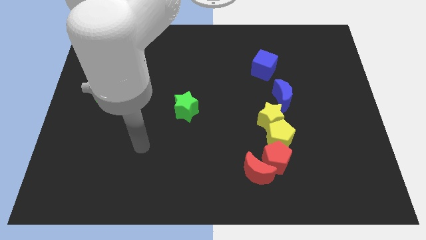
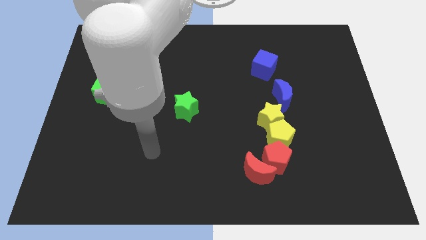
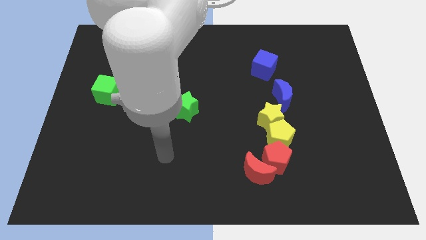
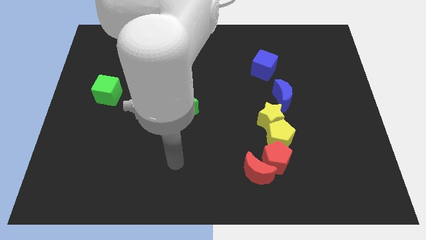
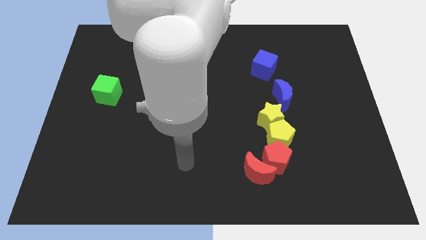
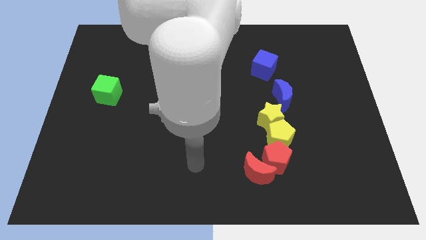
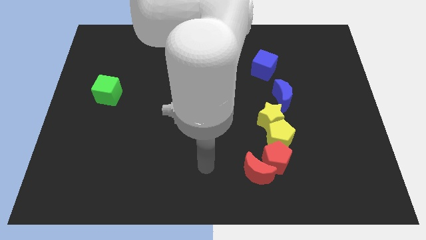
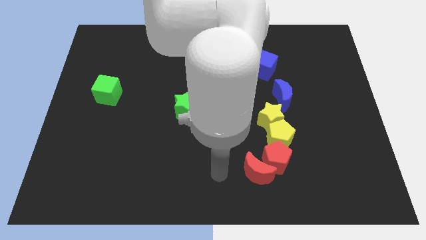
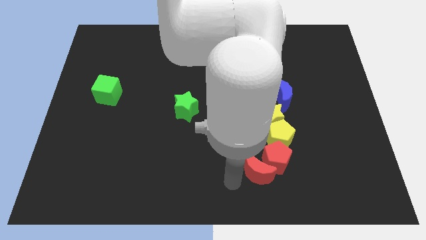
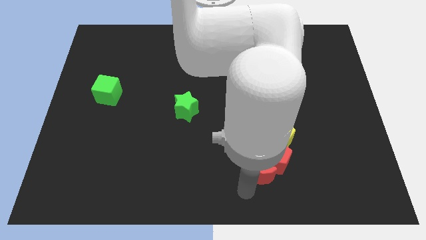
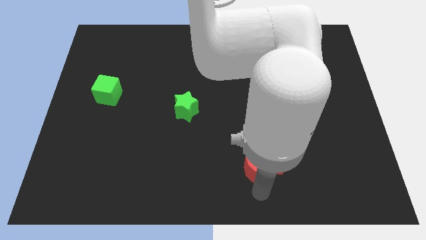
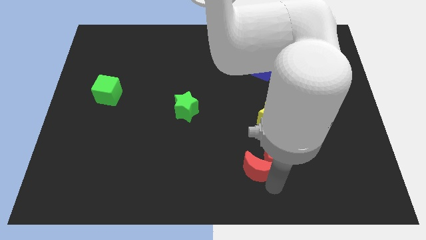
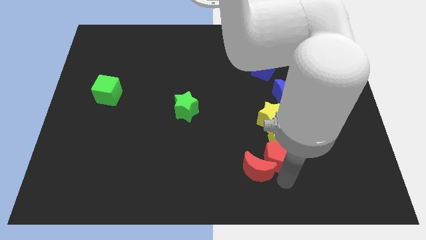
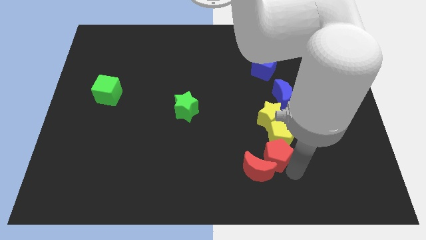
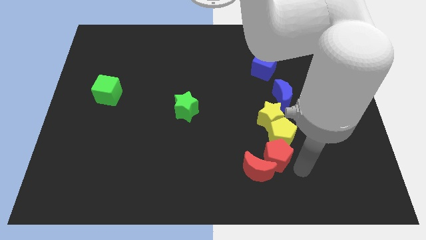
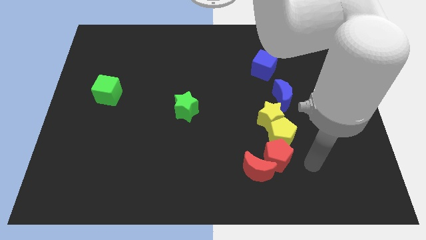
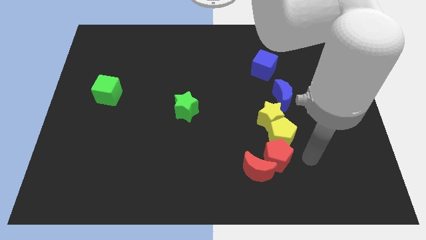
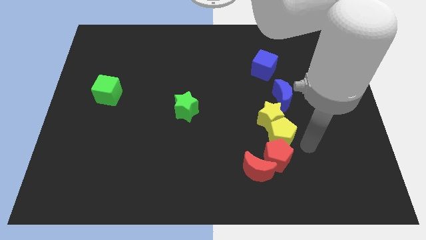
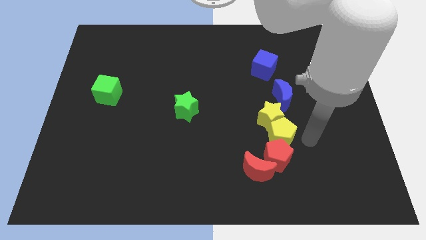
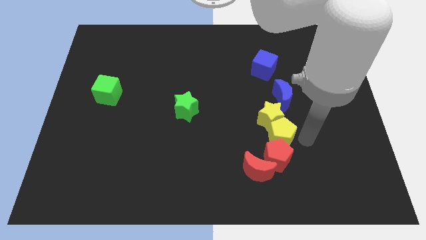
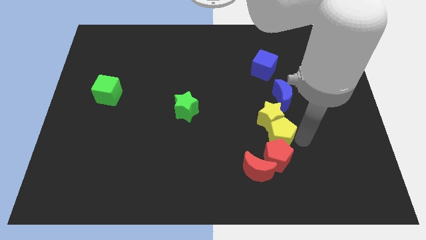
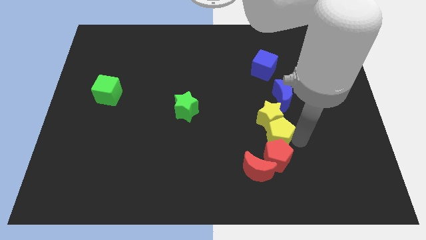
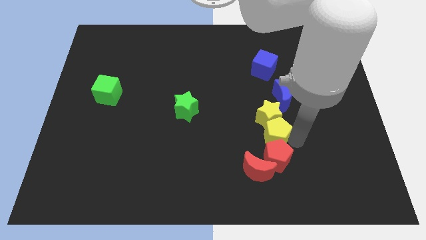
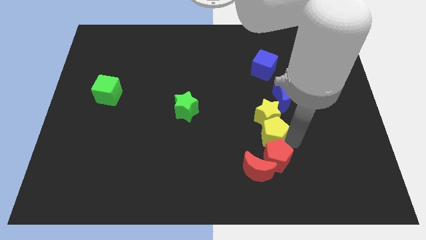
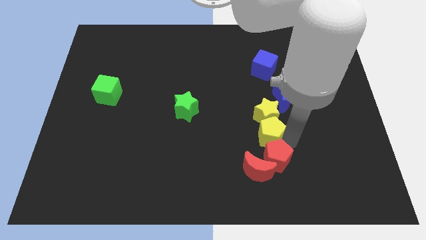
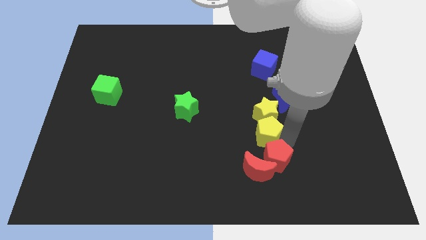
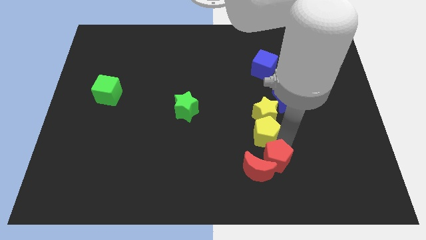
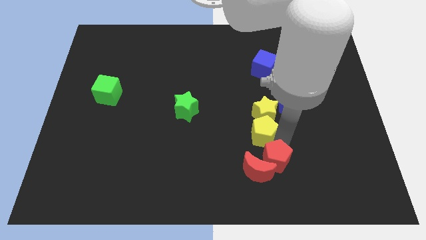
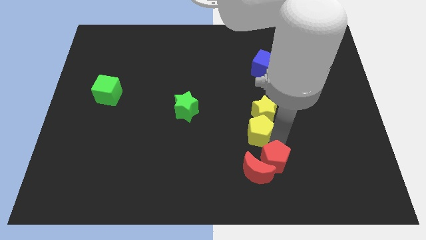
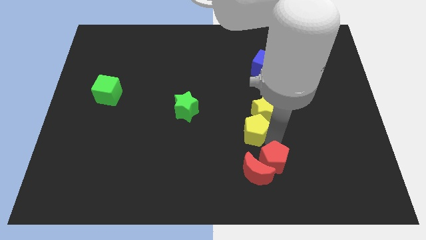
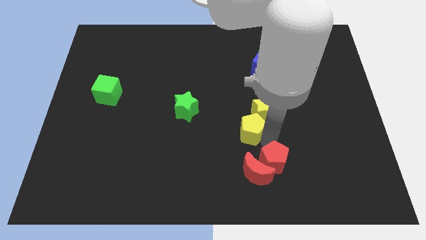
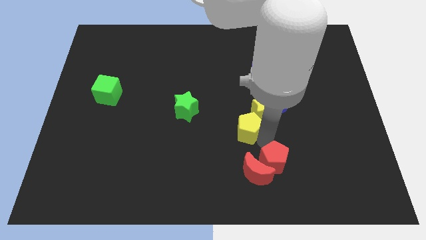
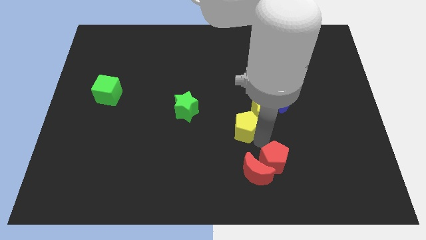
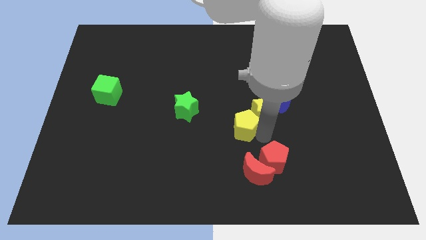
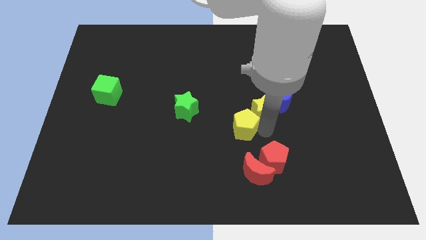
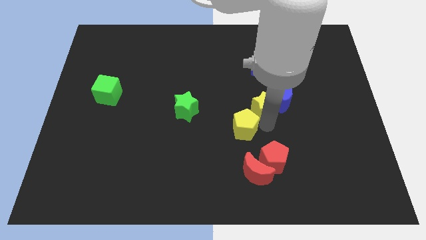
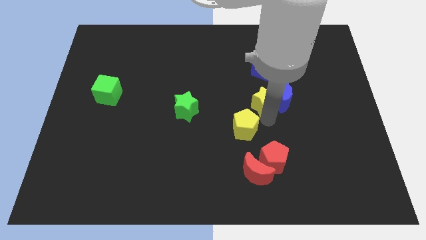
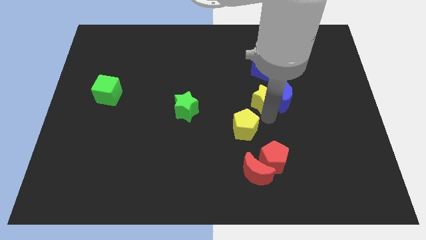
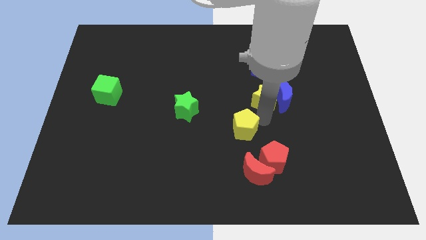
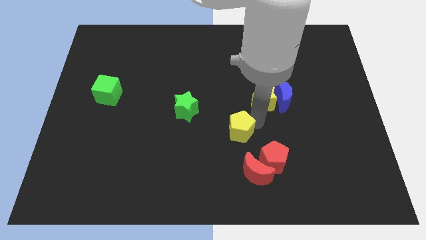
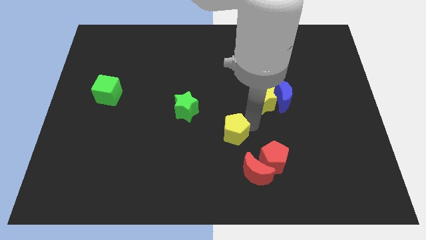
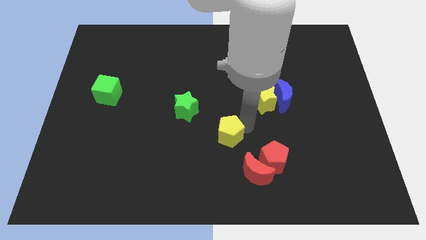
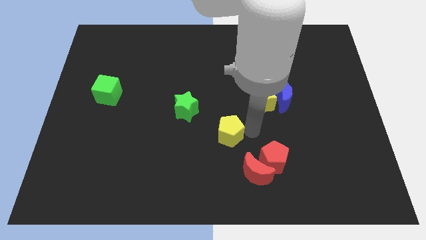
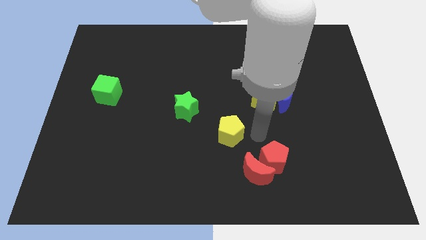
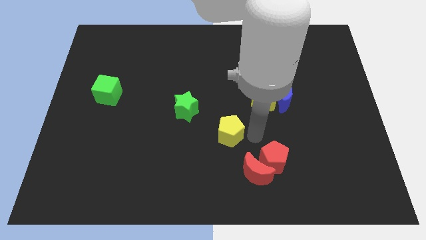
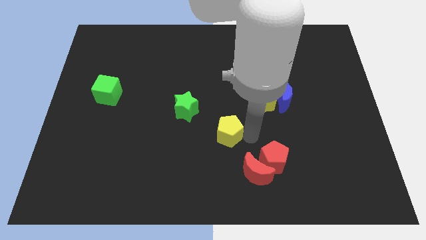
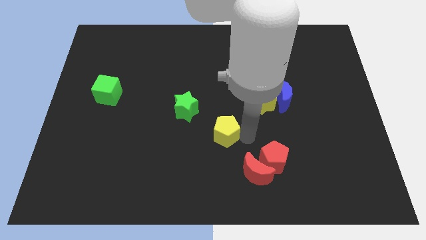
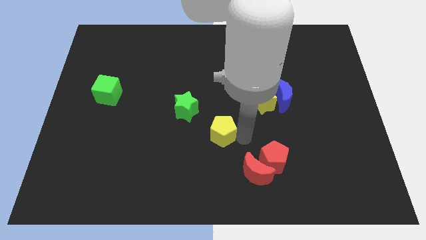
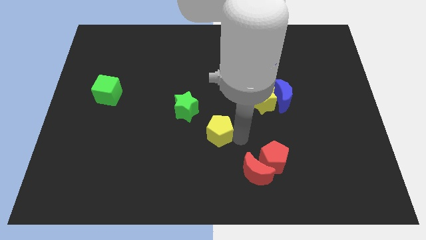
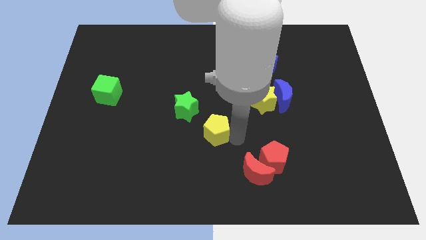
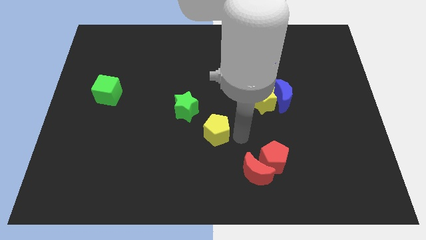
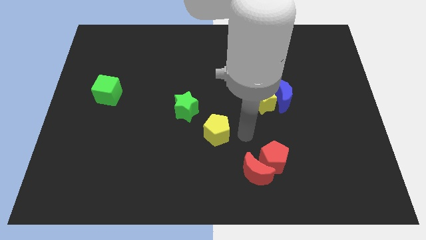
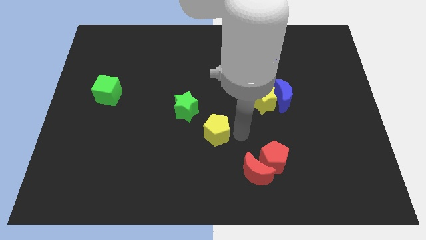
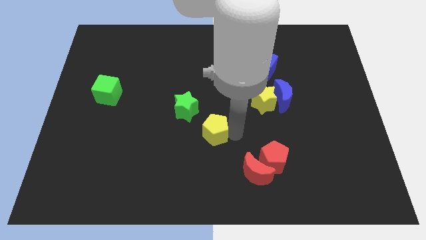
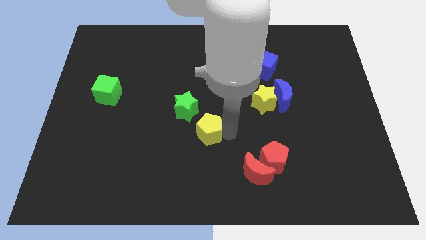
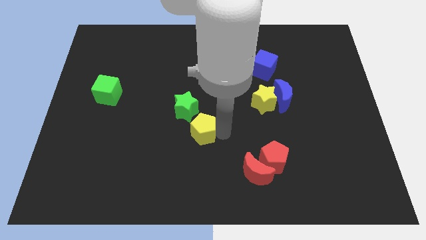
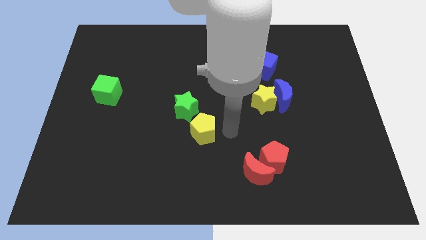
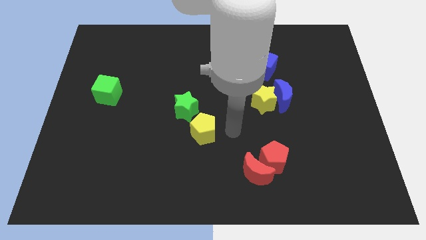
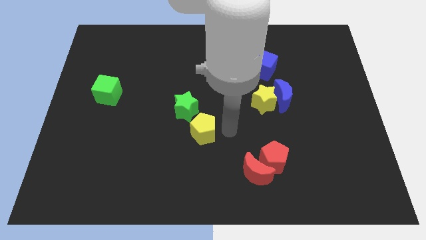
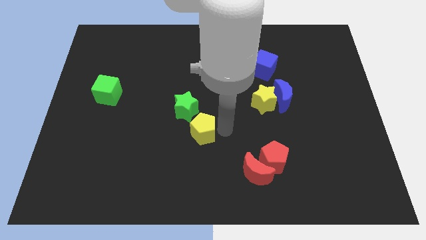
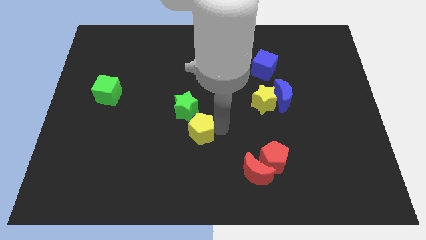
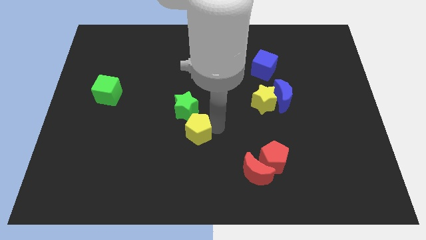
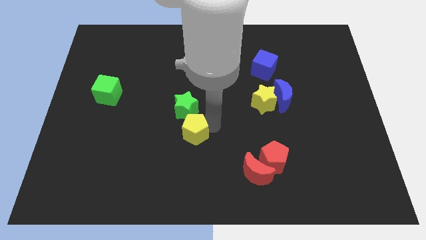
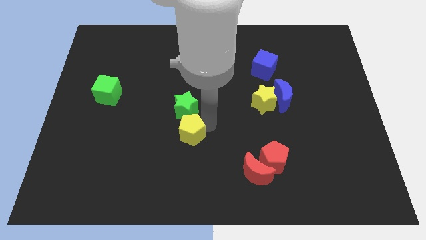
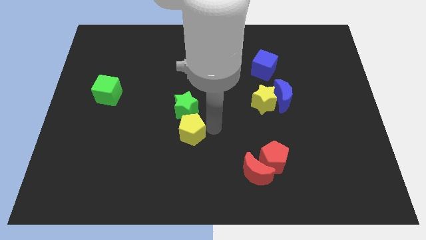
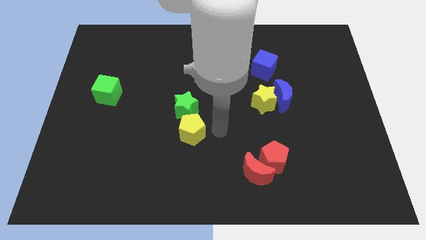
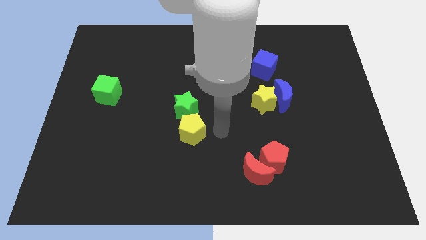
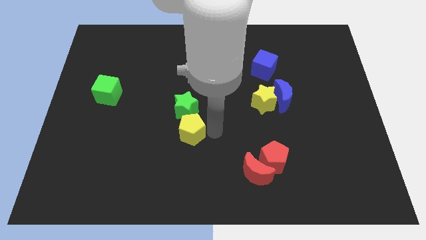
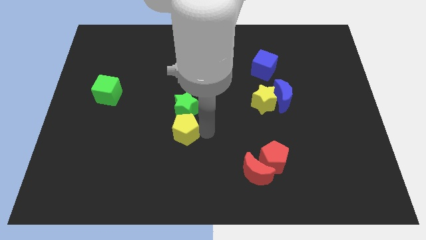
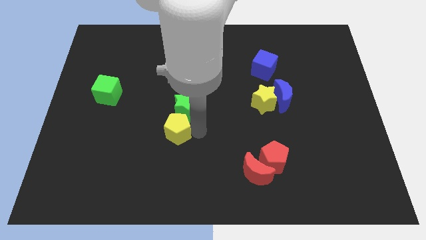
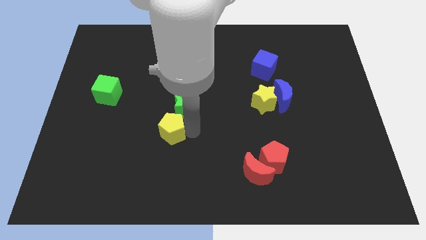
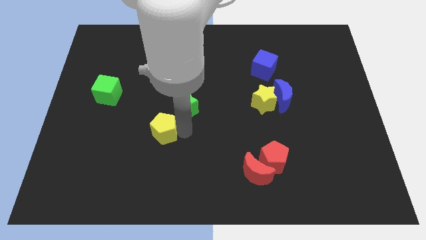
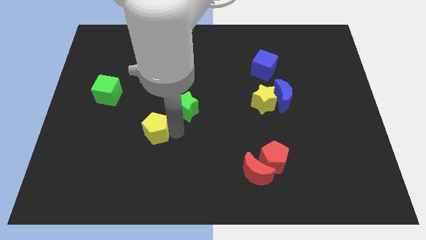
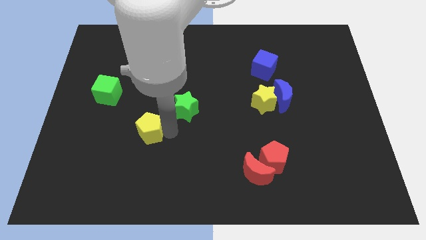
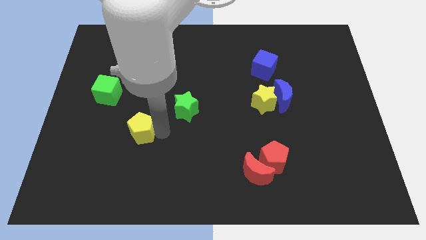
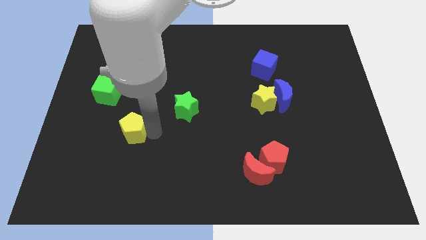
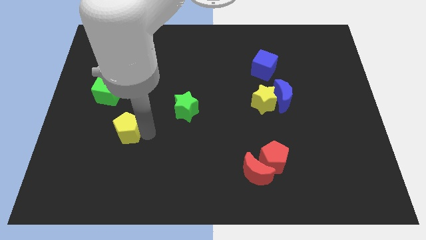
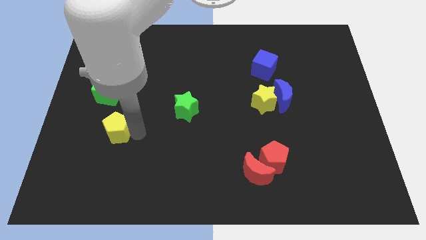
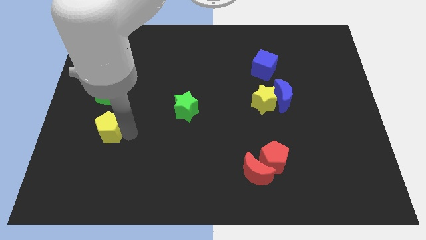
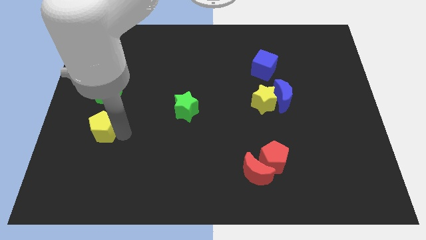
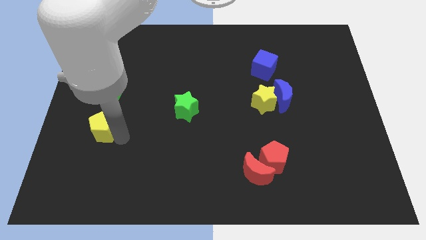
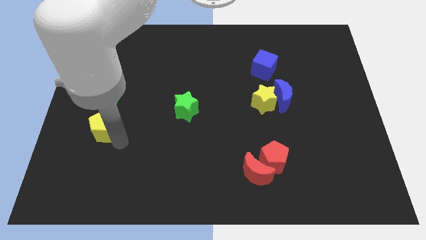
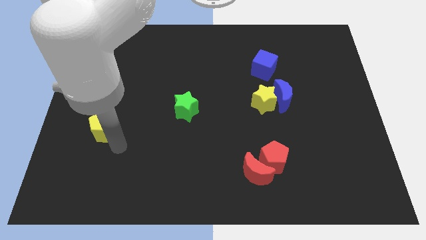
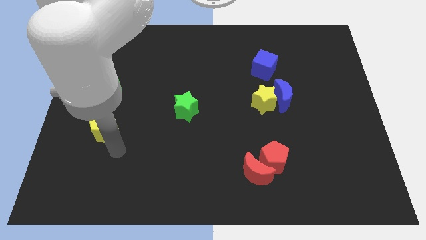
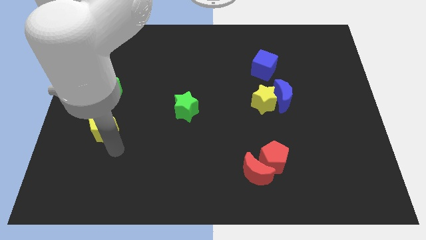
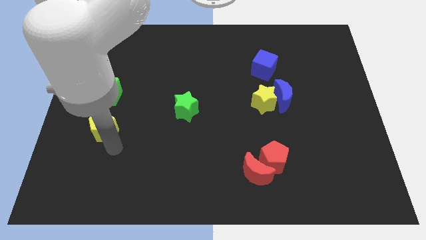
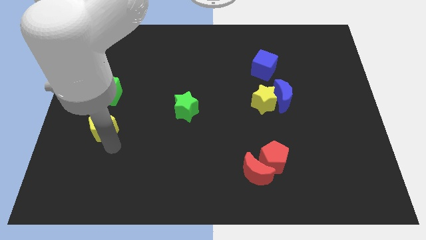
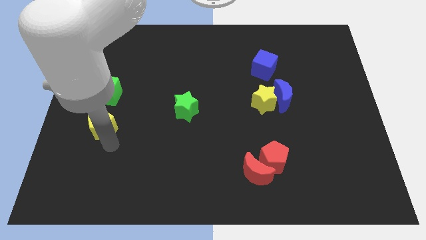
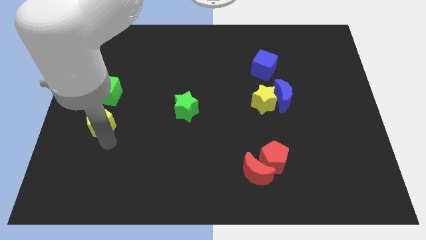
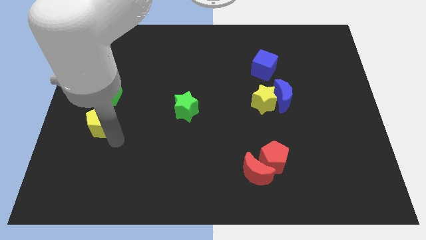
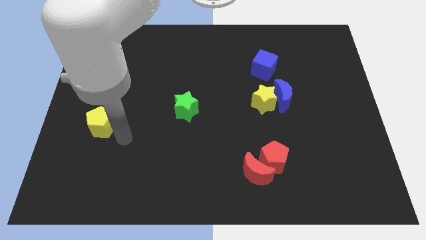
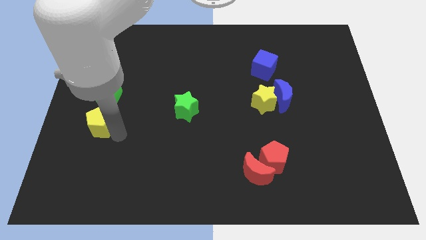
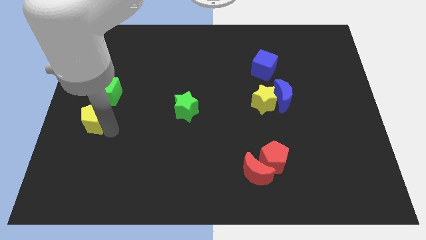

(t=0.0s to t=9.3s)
slide the yellow pentagon to the left side of the board
